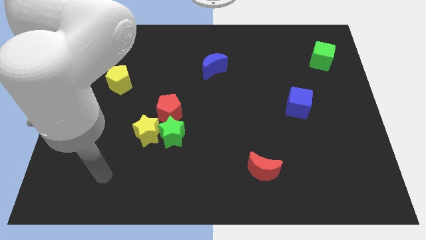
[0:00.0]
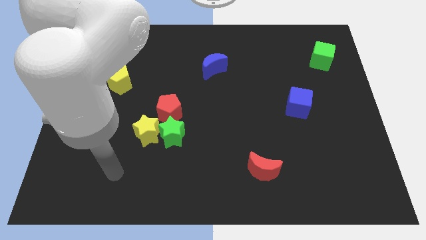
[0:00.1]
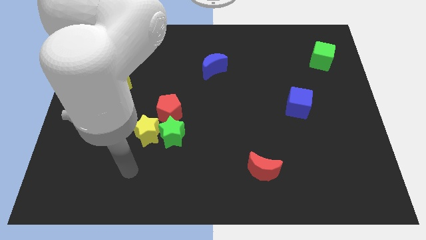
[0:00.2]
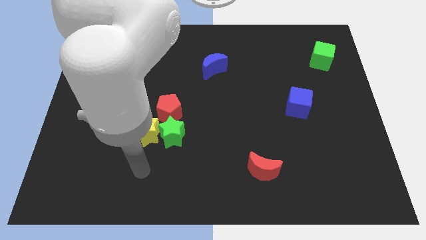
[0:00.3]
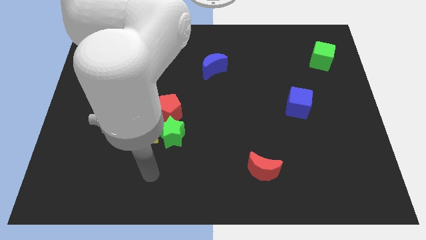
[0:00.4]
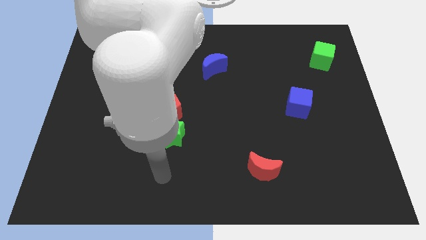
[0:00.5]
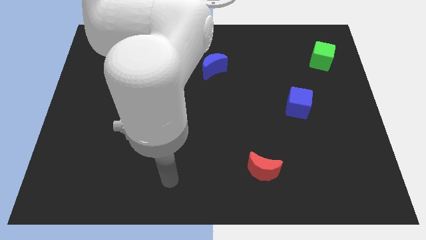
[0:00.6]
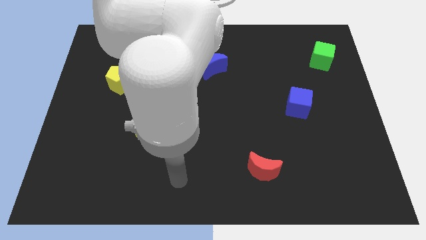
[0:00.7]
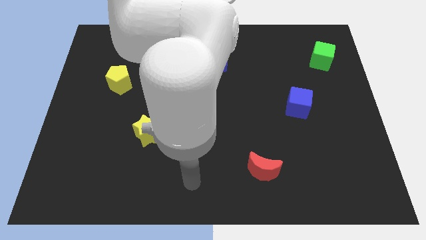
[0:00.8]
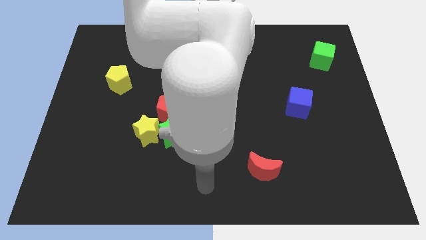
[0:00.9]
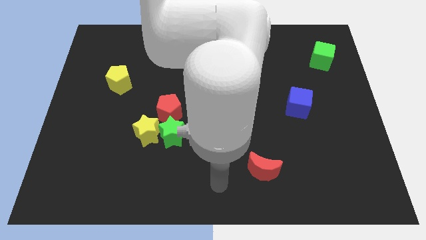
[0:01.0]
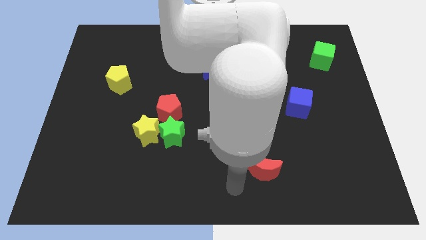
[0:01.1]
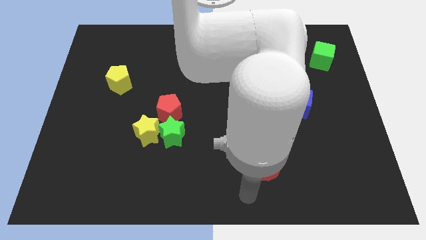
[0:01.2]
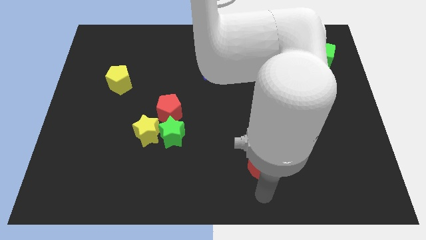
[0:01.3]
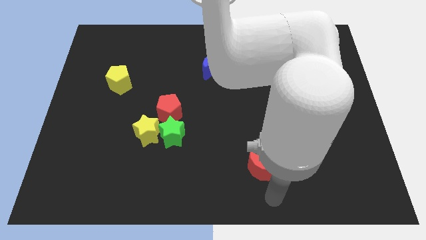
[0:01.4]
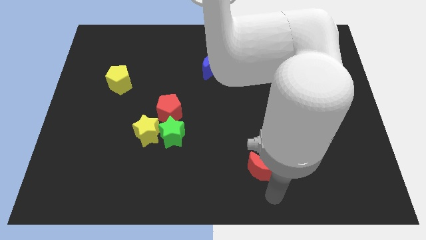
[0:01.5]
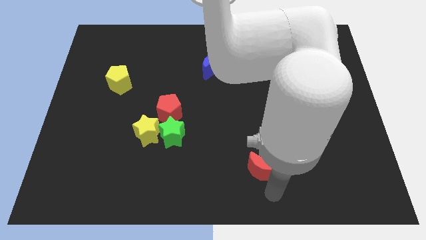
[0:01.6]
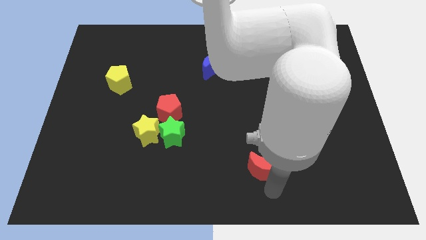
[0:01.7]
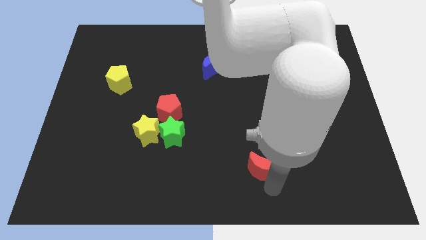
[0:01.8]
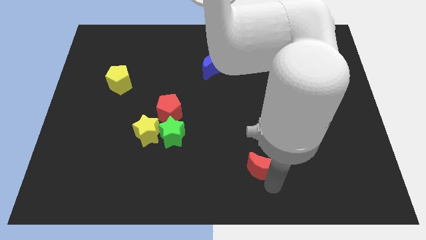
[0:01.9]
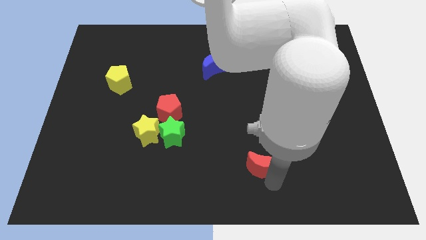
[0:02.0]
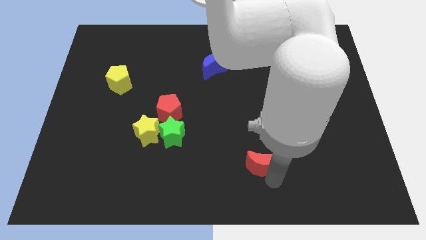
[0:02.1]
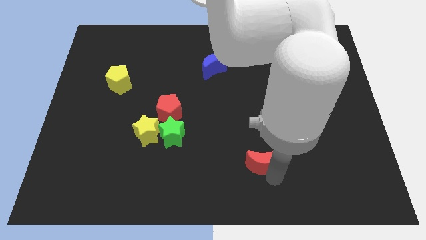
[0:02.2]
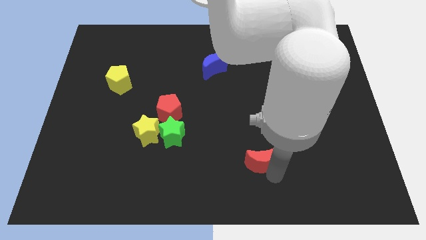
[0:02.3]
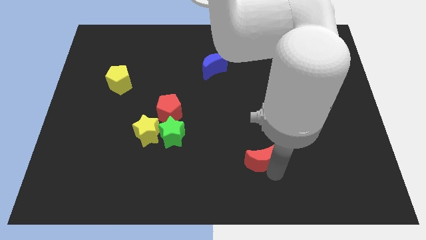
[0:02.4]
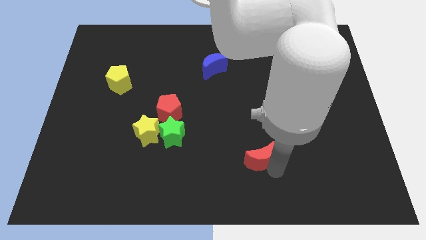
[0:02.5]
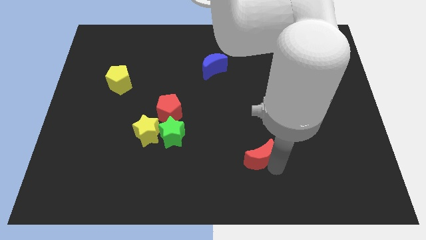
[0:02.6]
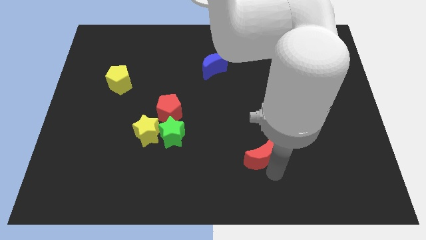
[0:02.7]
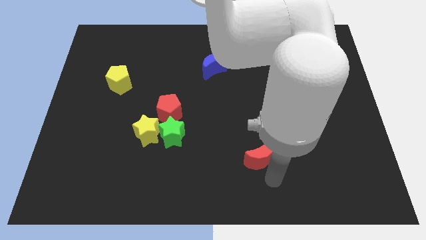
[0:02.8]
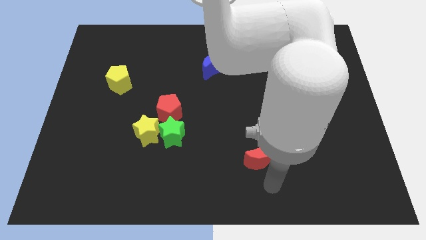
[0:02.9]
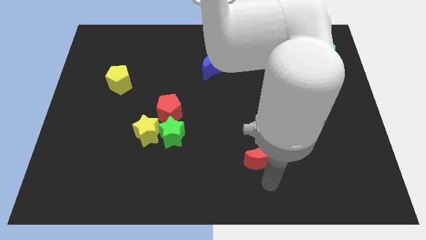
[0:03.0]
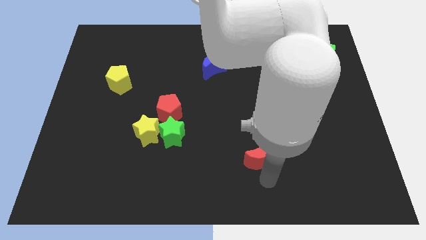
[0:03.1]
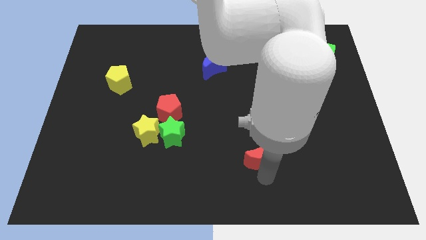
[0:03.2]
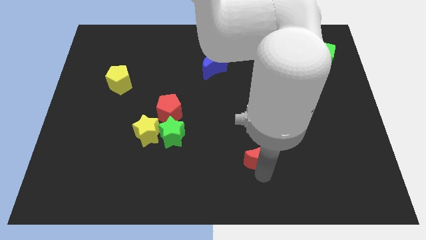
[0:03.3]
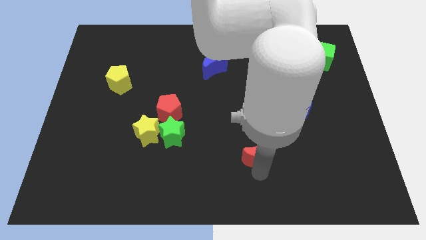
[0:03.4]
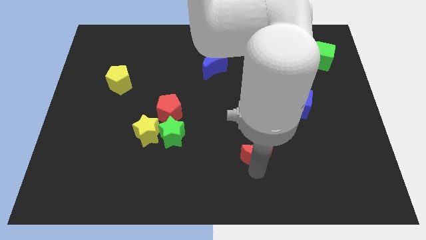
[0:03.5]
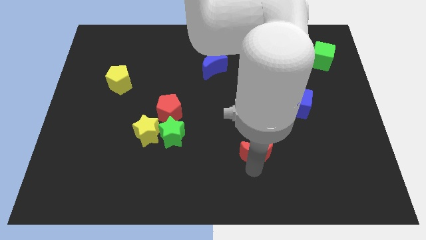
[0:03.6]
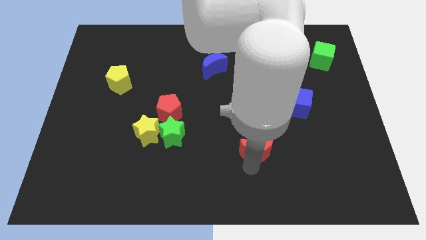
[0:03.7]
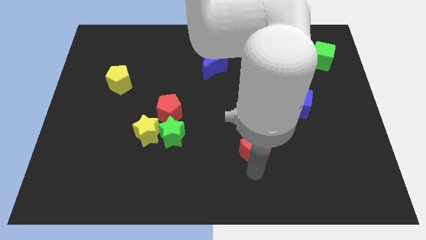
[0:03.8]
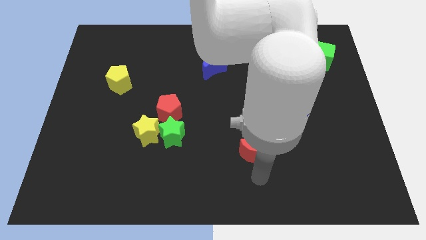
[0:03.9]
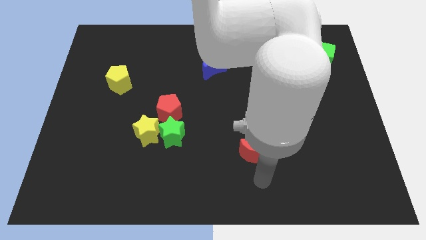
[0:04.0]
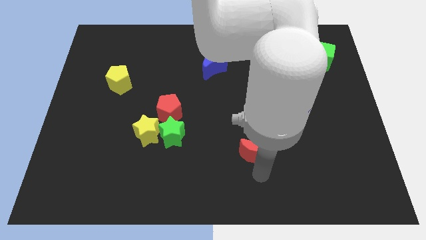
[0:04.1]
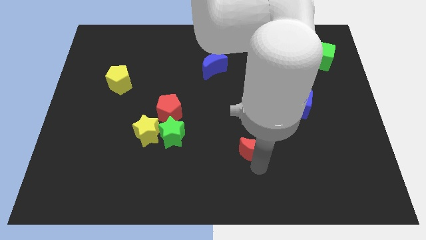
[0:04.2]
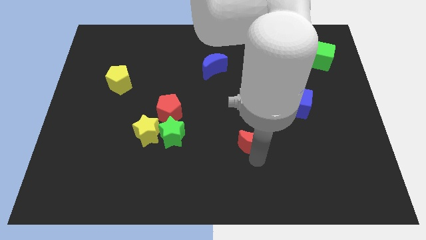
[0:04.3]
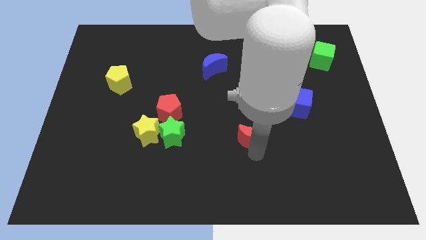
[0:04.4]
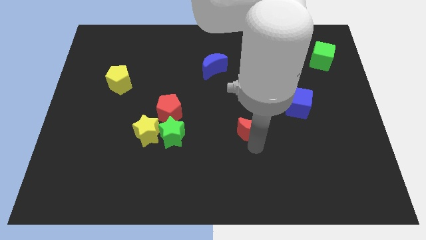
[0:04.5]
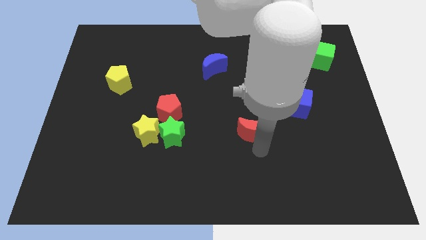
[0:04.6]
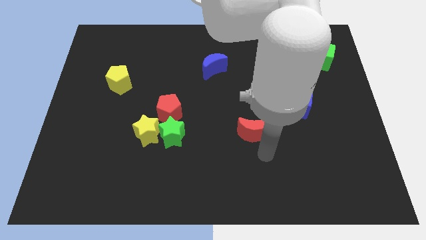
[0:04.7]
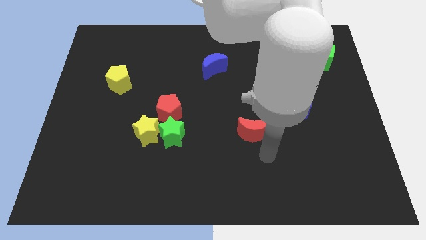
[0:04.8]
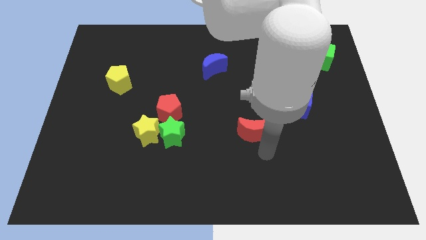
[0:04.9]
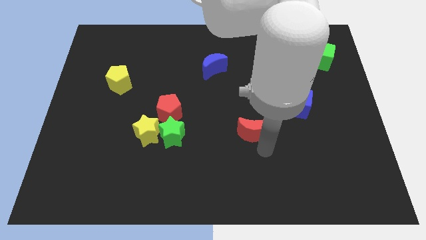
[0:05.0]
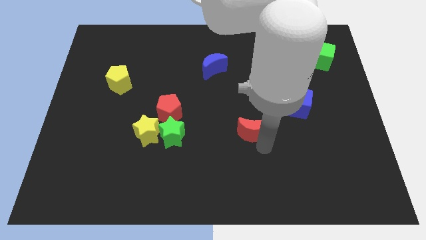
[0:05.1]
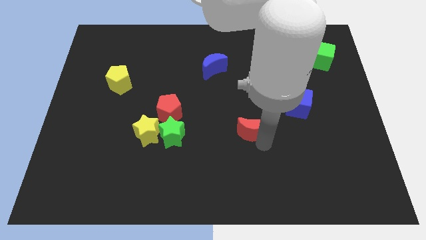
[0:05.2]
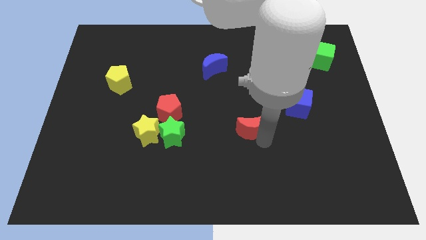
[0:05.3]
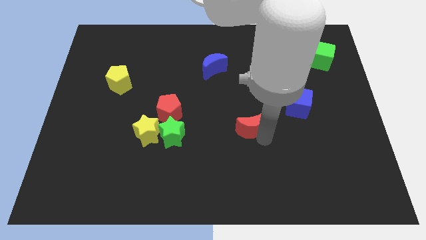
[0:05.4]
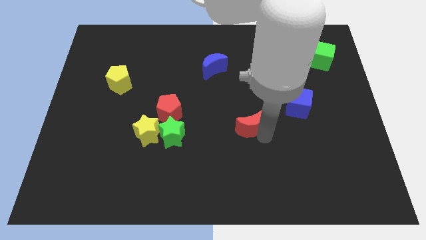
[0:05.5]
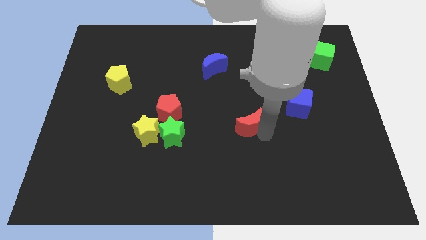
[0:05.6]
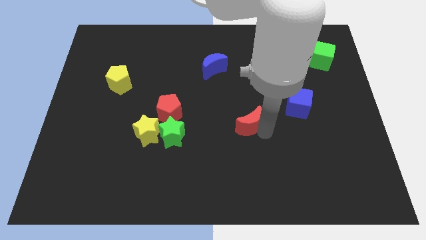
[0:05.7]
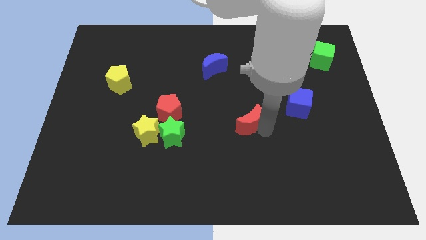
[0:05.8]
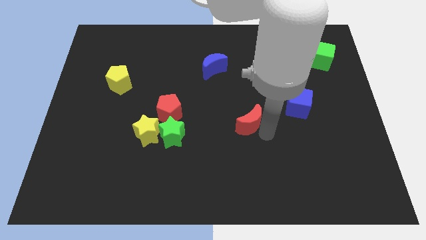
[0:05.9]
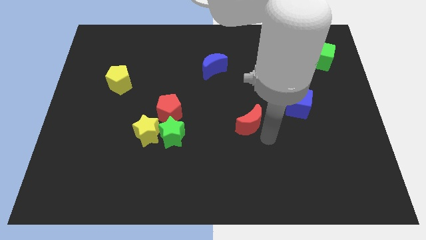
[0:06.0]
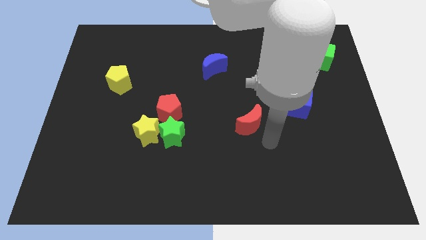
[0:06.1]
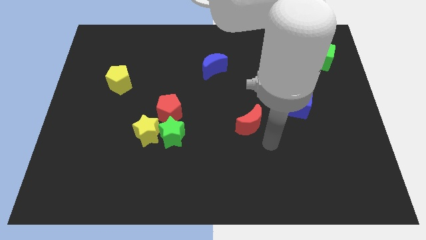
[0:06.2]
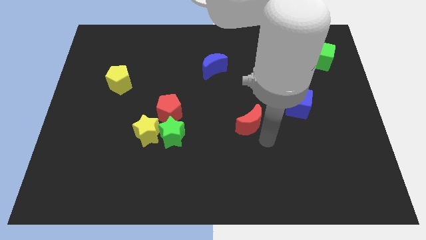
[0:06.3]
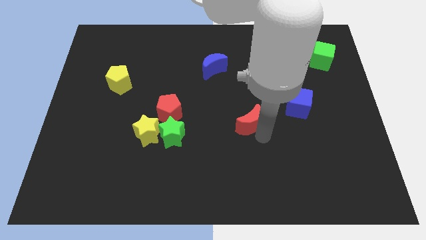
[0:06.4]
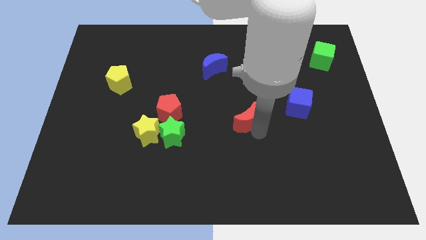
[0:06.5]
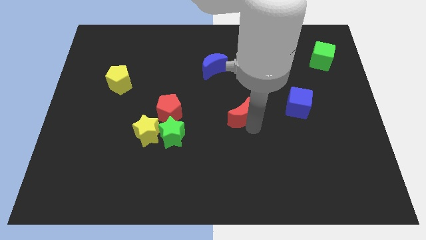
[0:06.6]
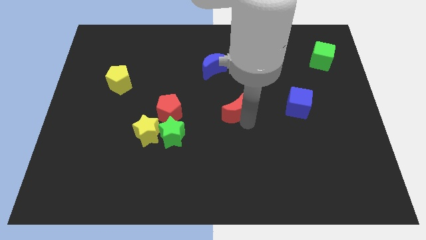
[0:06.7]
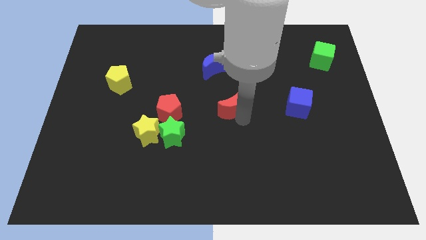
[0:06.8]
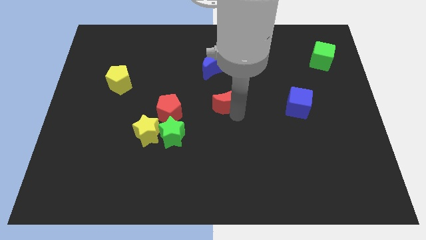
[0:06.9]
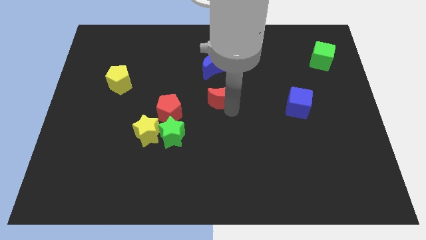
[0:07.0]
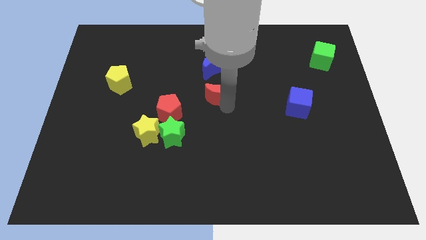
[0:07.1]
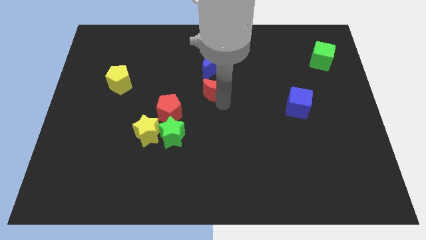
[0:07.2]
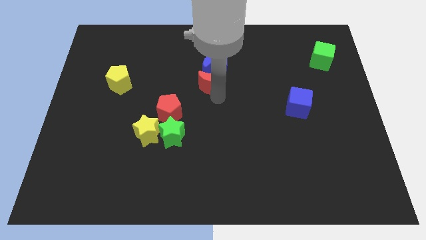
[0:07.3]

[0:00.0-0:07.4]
put the red moon close to the blue moon
